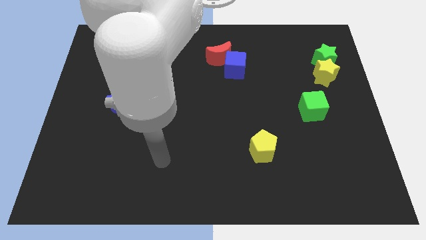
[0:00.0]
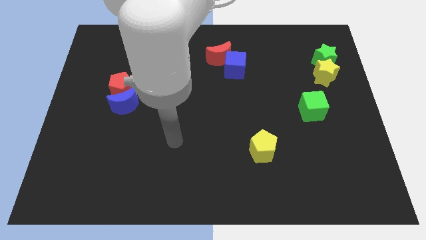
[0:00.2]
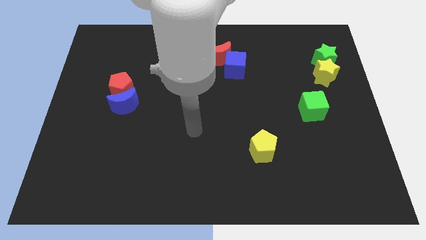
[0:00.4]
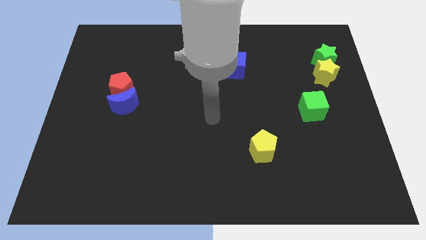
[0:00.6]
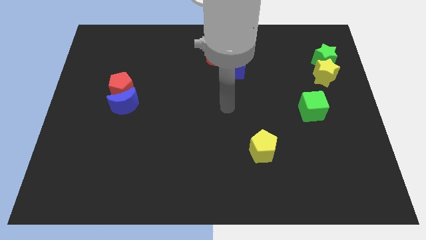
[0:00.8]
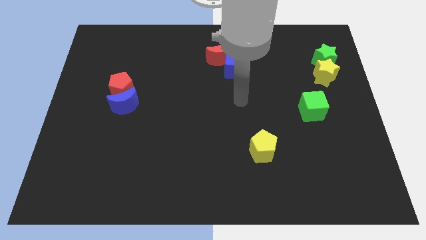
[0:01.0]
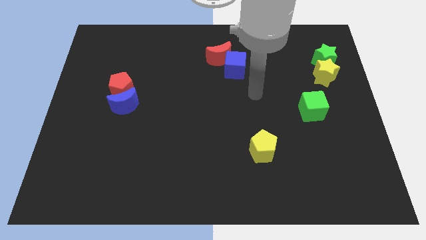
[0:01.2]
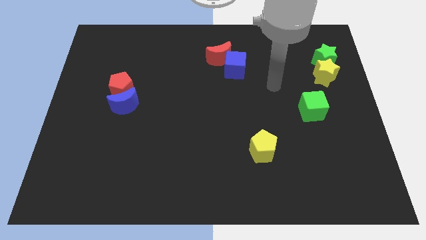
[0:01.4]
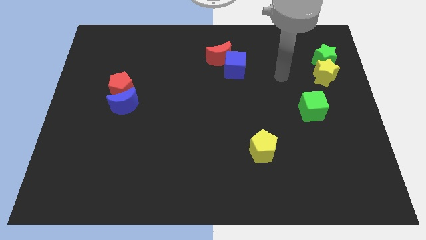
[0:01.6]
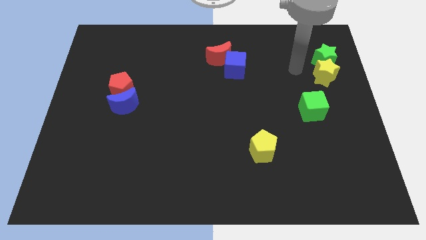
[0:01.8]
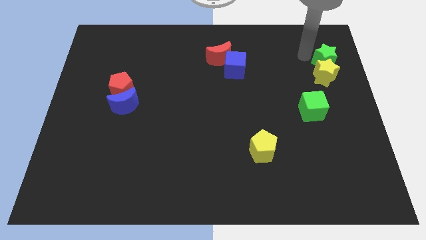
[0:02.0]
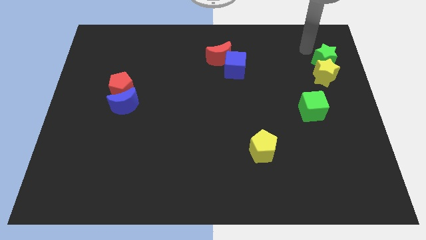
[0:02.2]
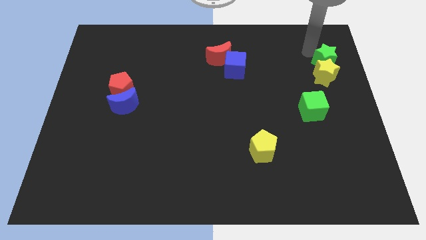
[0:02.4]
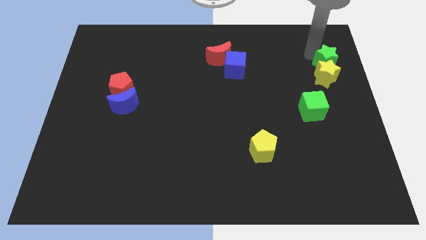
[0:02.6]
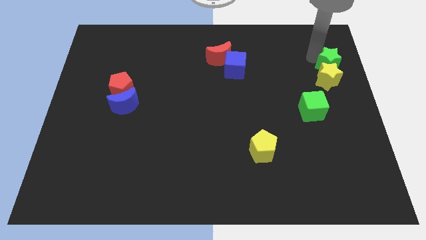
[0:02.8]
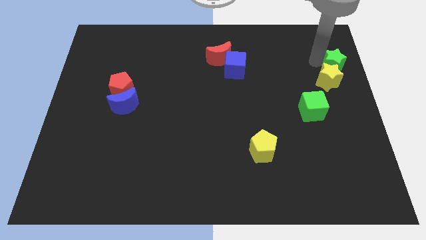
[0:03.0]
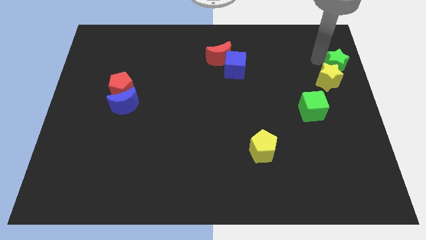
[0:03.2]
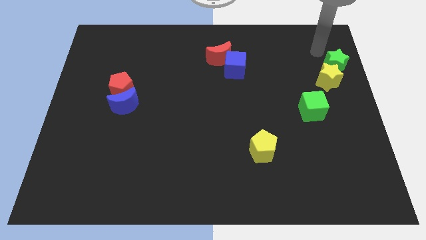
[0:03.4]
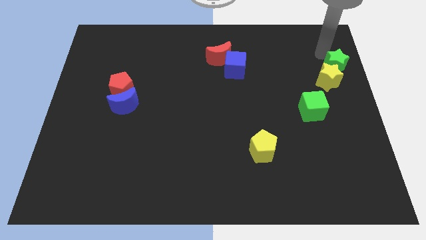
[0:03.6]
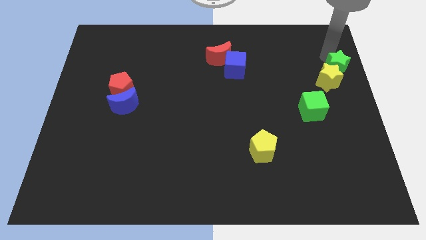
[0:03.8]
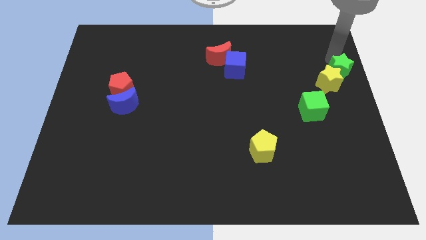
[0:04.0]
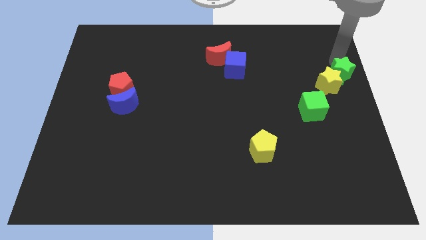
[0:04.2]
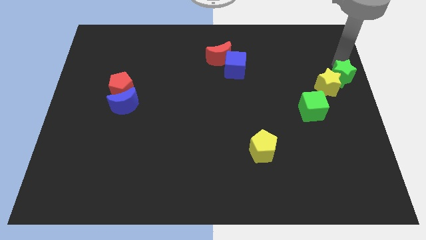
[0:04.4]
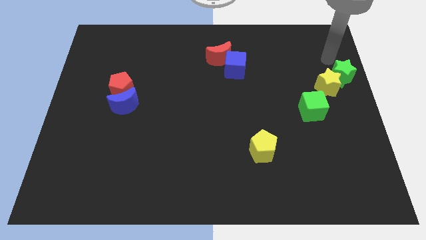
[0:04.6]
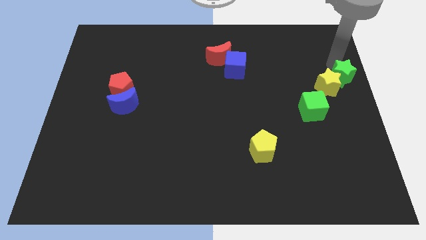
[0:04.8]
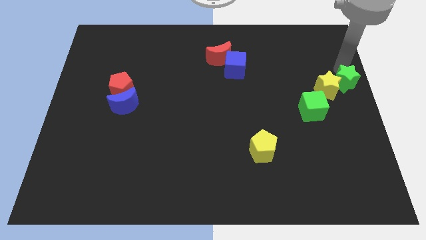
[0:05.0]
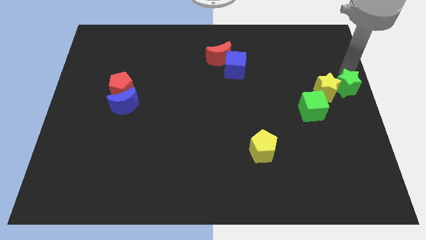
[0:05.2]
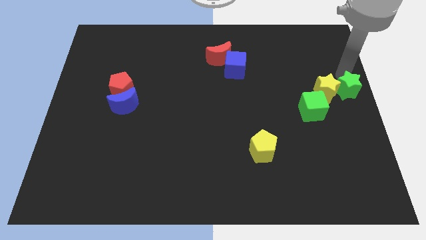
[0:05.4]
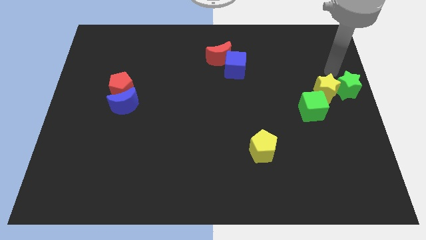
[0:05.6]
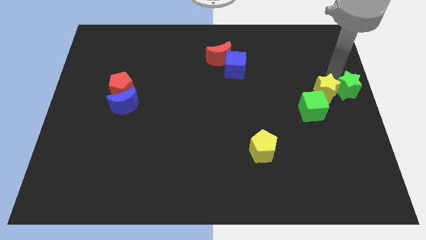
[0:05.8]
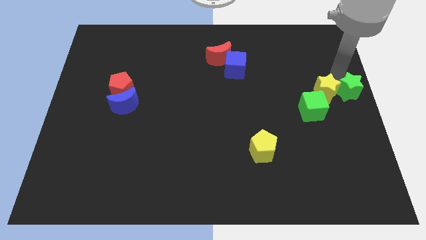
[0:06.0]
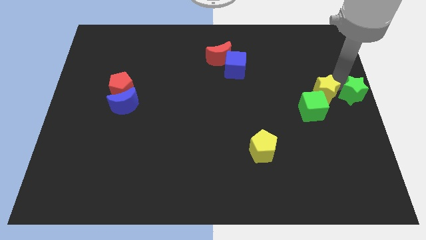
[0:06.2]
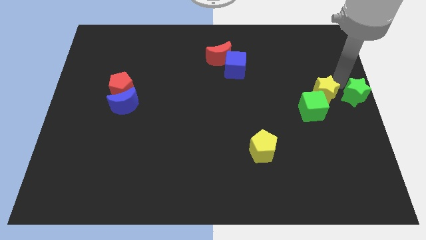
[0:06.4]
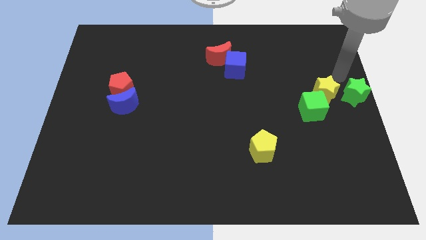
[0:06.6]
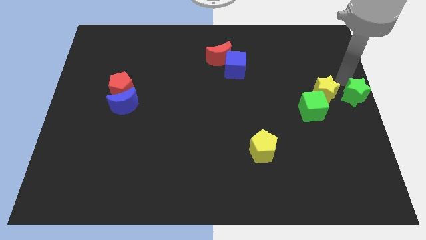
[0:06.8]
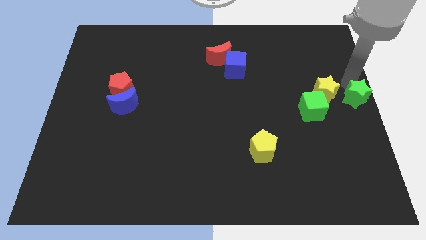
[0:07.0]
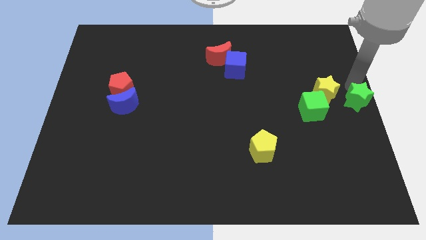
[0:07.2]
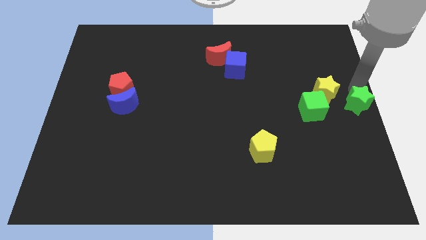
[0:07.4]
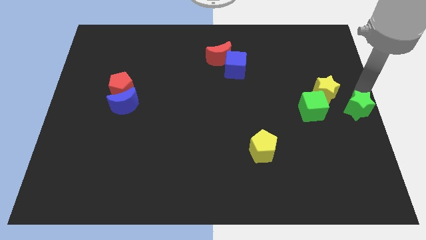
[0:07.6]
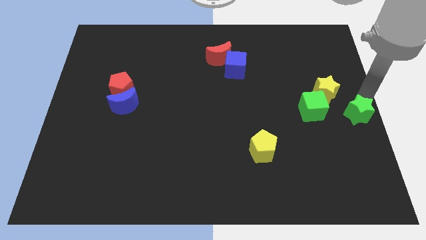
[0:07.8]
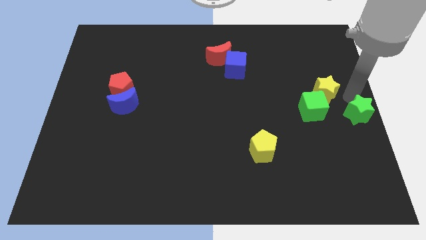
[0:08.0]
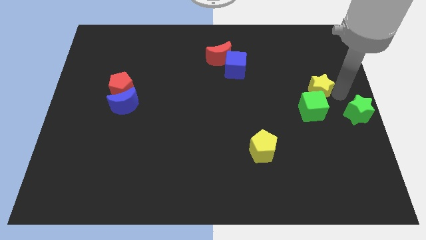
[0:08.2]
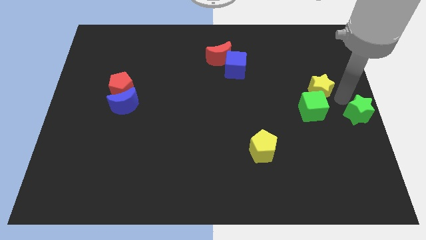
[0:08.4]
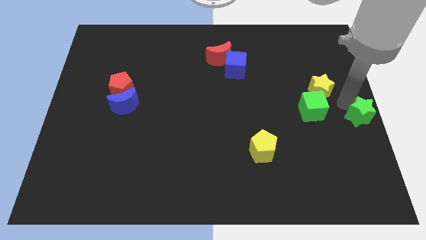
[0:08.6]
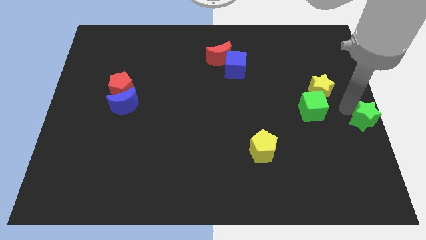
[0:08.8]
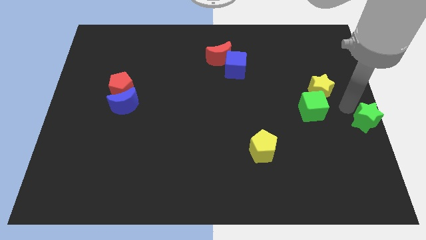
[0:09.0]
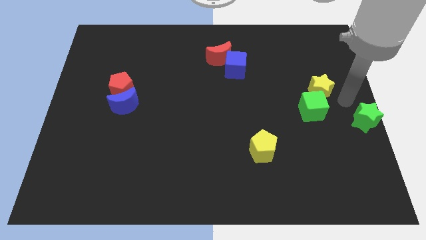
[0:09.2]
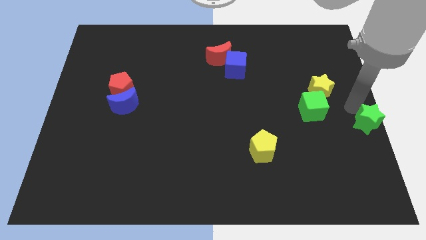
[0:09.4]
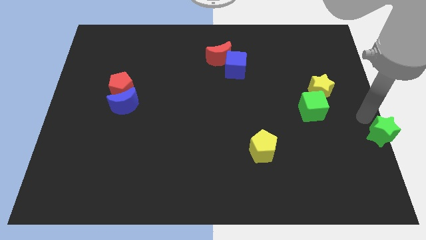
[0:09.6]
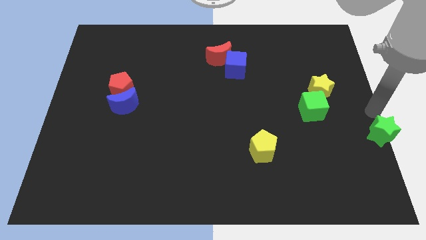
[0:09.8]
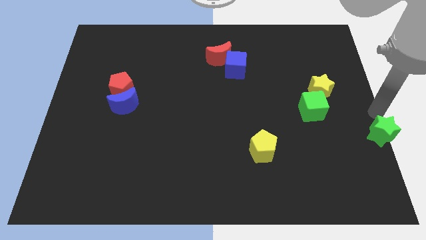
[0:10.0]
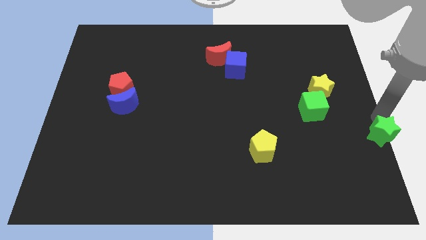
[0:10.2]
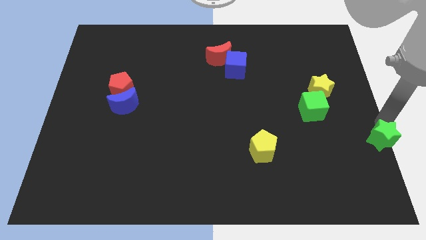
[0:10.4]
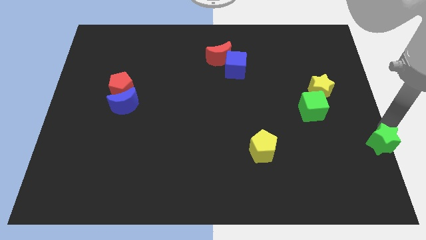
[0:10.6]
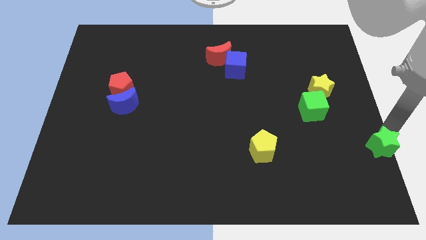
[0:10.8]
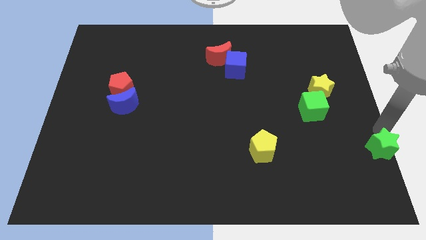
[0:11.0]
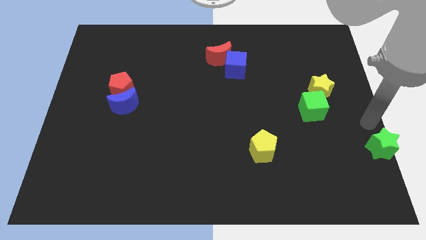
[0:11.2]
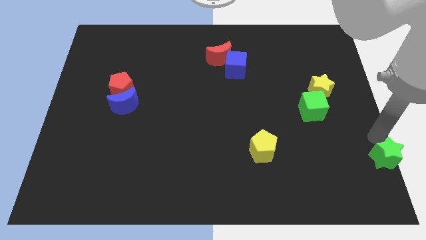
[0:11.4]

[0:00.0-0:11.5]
slide the green star to the bottom right of the board

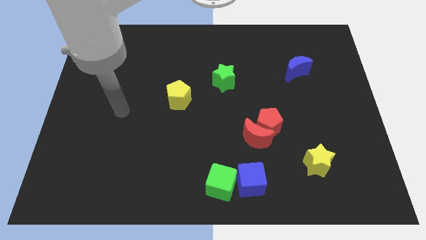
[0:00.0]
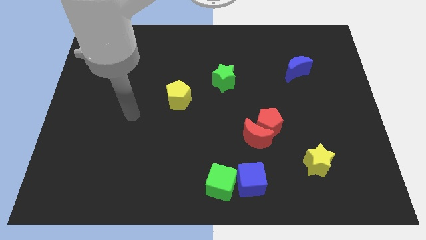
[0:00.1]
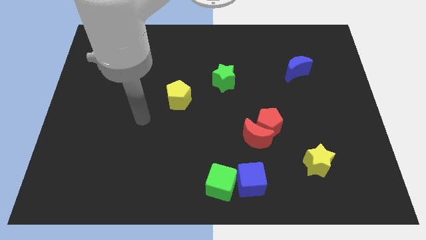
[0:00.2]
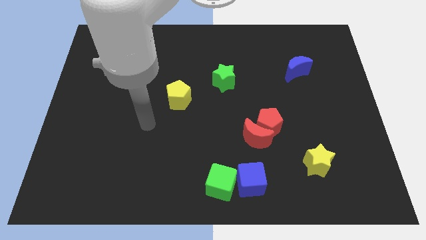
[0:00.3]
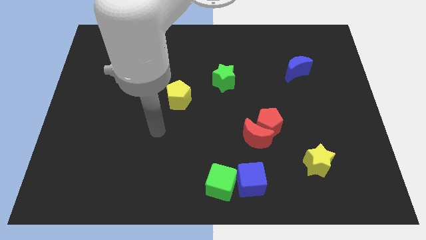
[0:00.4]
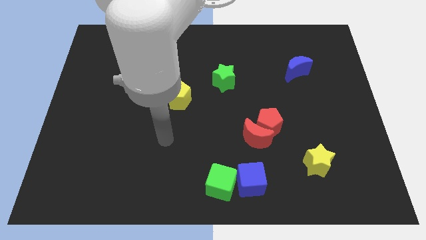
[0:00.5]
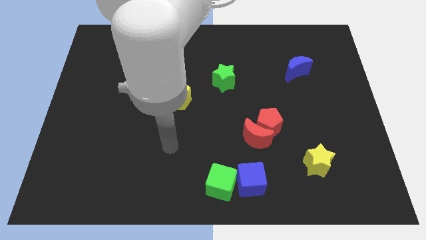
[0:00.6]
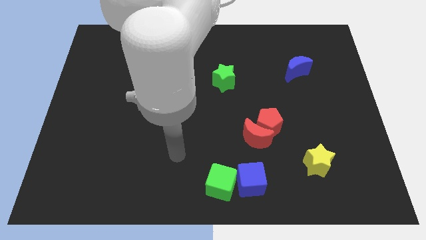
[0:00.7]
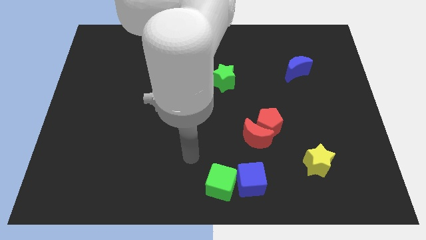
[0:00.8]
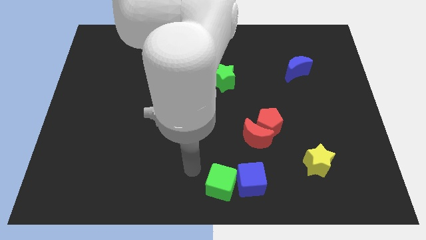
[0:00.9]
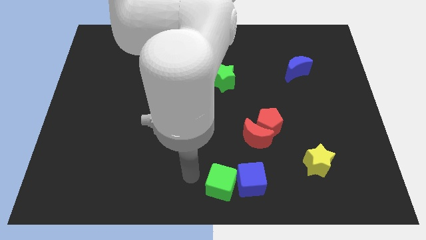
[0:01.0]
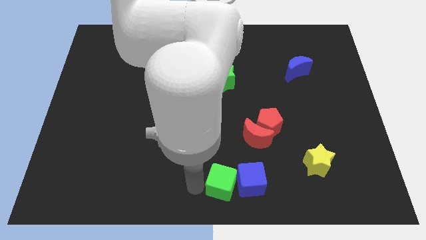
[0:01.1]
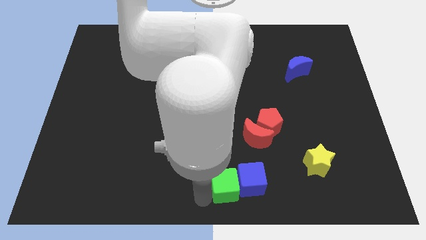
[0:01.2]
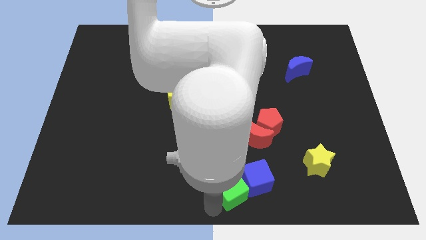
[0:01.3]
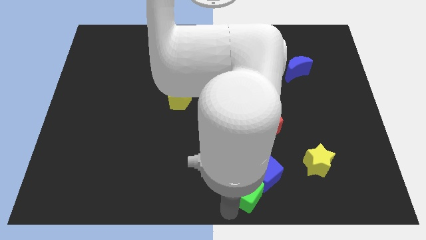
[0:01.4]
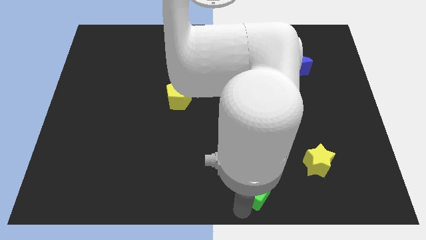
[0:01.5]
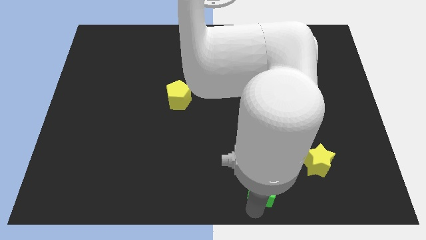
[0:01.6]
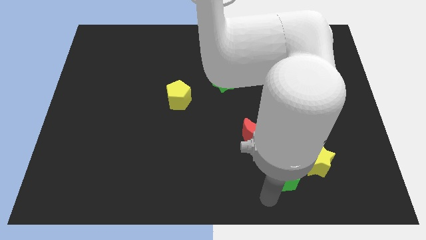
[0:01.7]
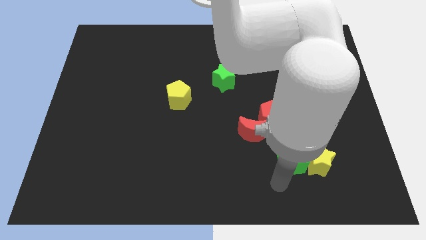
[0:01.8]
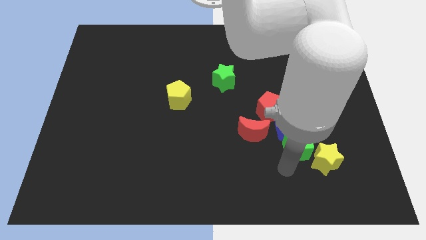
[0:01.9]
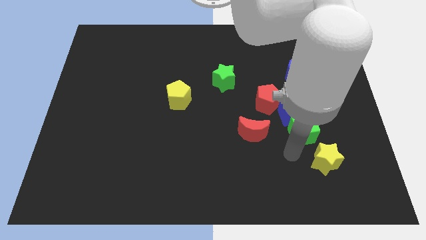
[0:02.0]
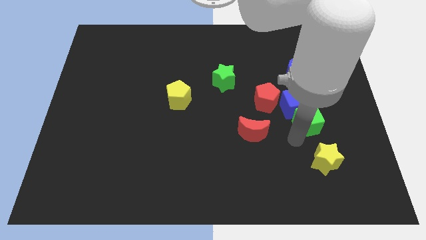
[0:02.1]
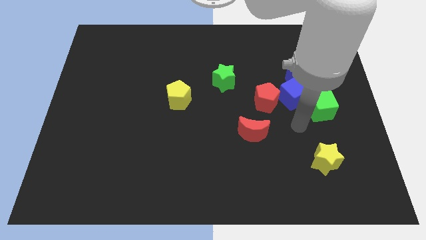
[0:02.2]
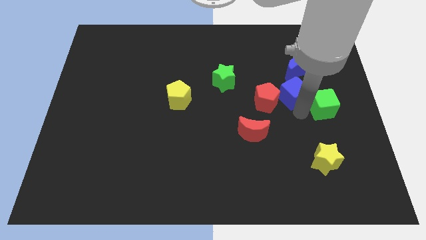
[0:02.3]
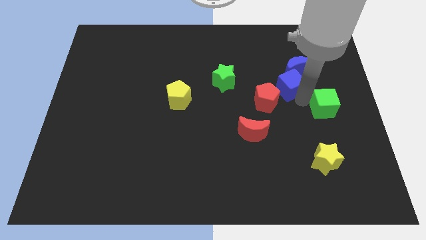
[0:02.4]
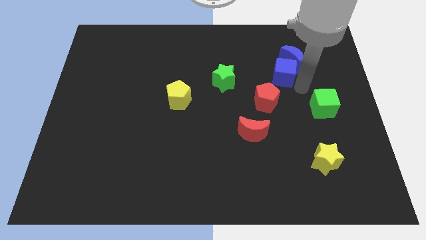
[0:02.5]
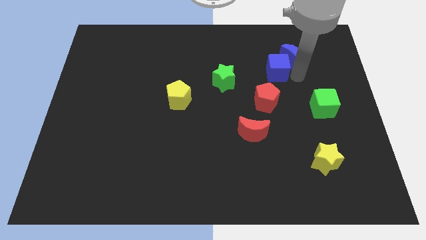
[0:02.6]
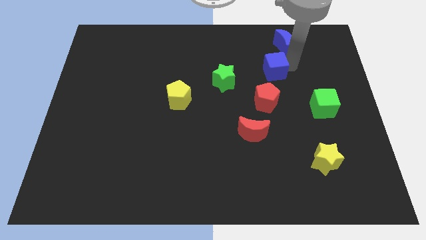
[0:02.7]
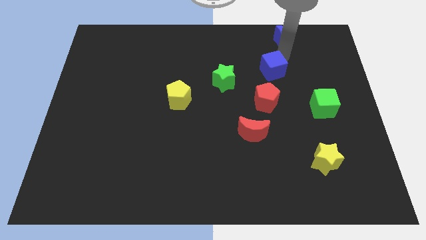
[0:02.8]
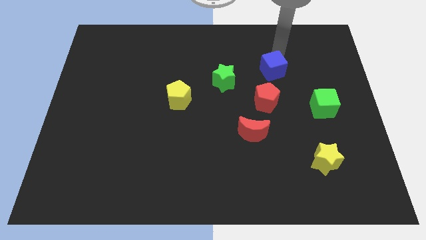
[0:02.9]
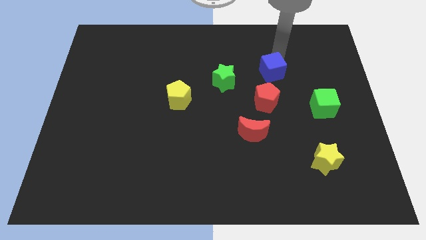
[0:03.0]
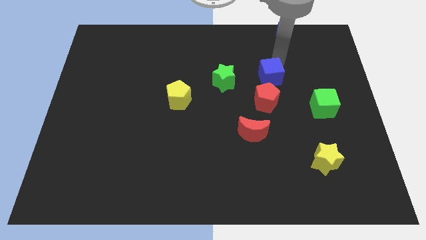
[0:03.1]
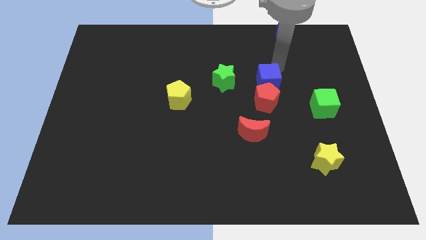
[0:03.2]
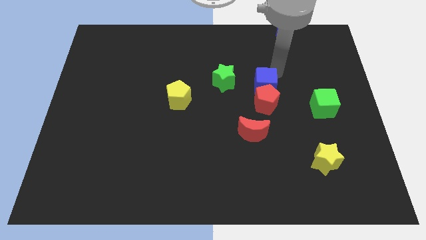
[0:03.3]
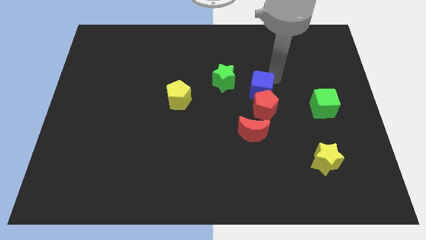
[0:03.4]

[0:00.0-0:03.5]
move the blue cube to the center of the board
